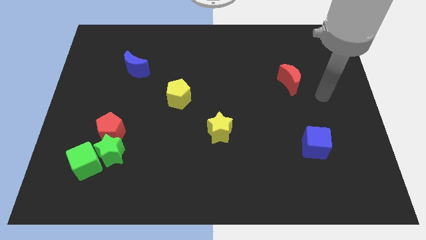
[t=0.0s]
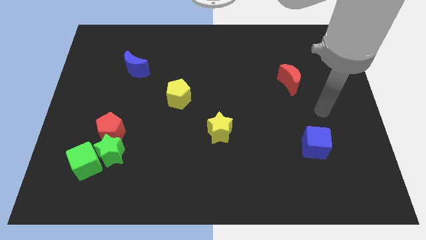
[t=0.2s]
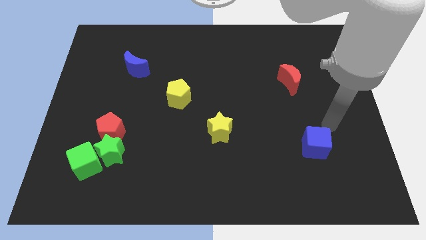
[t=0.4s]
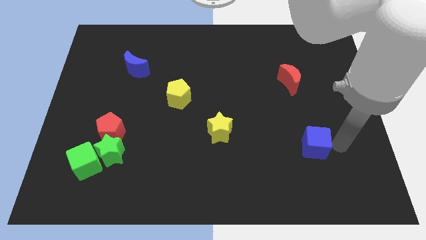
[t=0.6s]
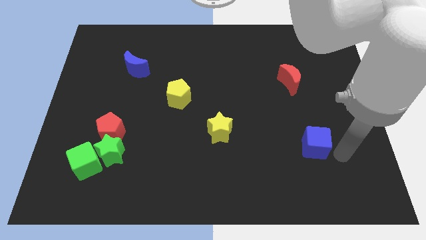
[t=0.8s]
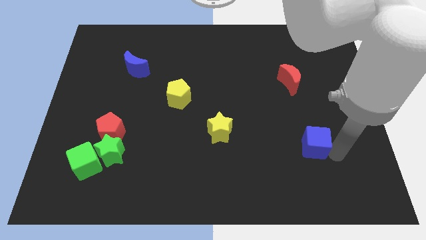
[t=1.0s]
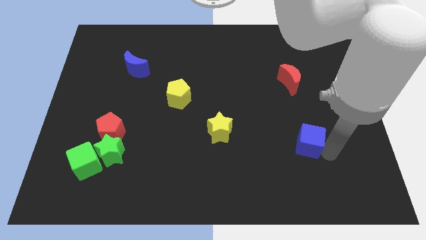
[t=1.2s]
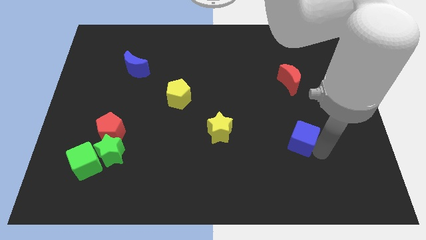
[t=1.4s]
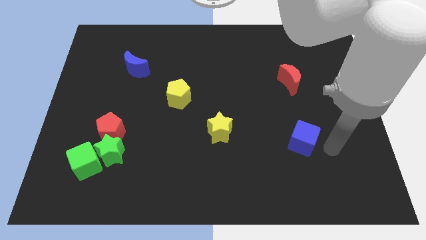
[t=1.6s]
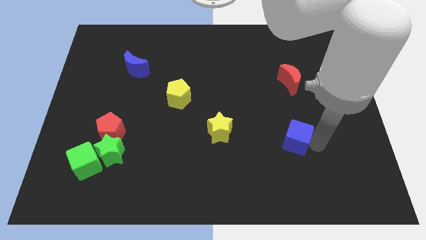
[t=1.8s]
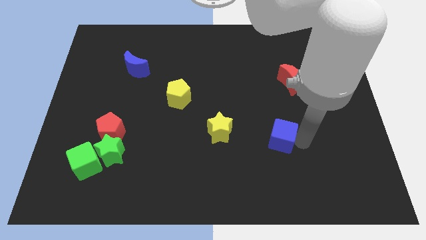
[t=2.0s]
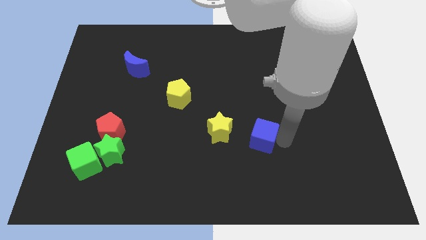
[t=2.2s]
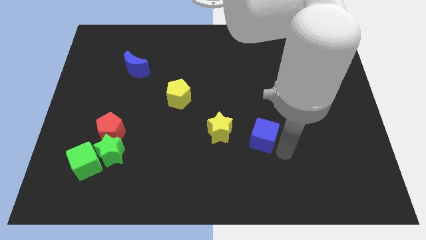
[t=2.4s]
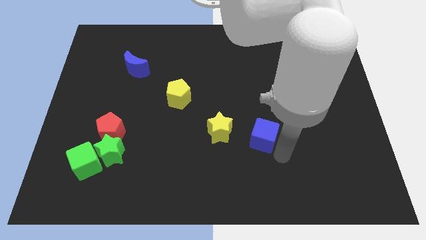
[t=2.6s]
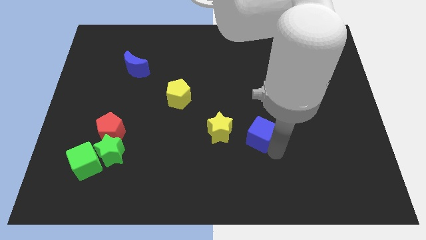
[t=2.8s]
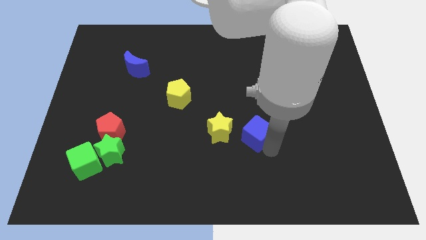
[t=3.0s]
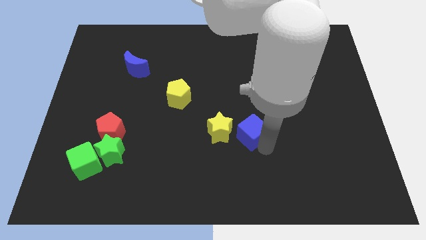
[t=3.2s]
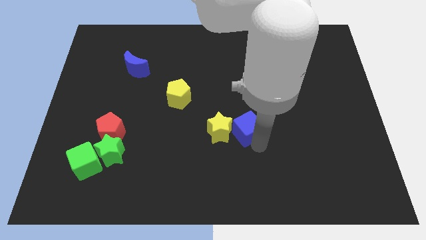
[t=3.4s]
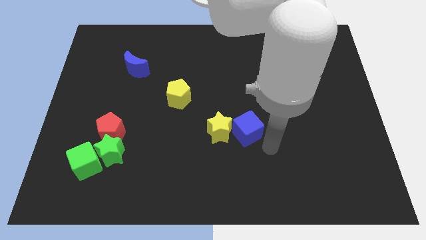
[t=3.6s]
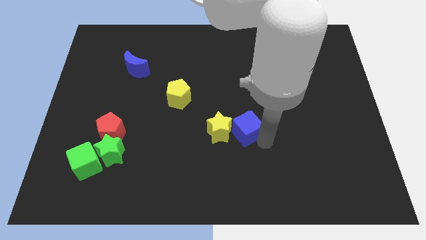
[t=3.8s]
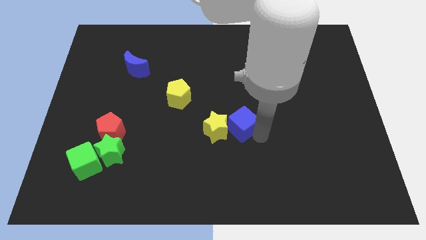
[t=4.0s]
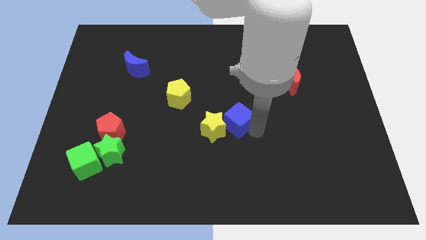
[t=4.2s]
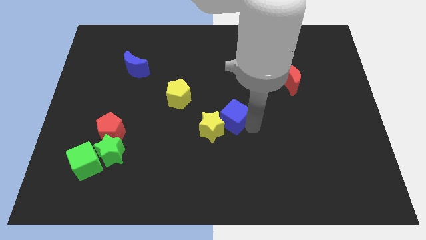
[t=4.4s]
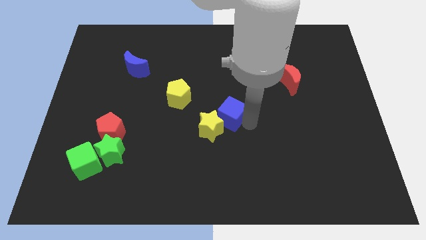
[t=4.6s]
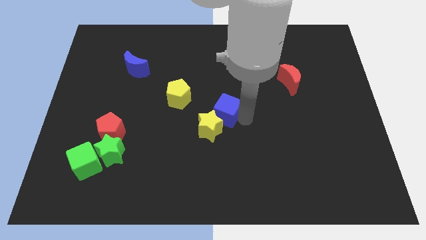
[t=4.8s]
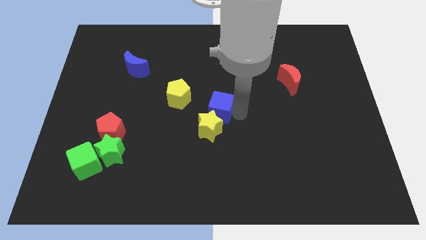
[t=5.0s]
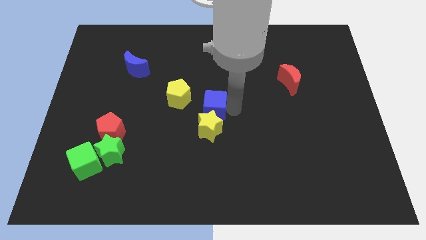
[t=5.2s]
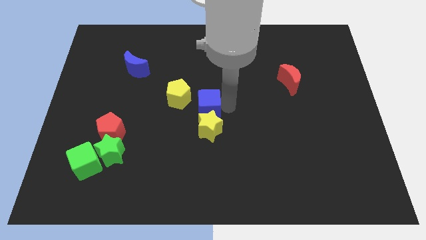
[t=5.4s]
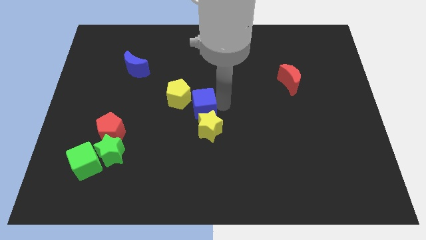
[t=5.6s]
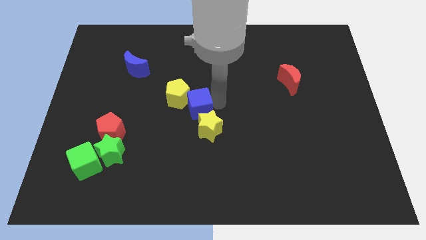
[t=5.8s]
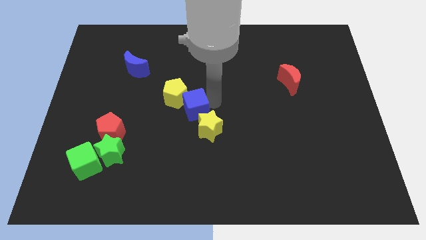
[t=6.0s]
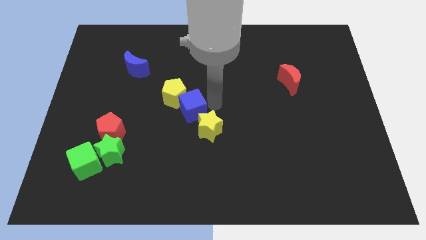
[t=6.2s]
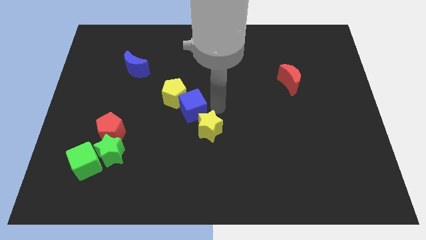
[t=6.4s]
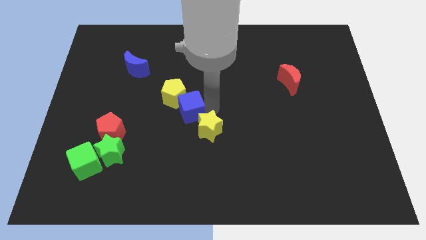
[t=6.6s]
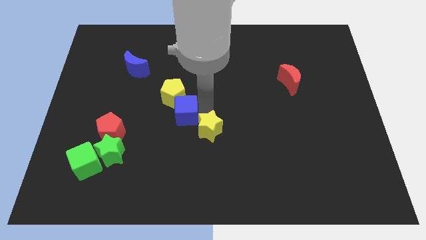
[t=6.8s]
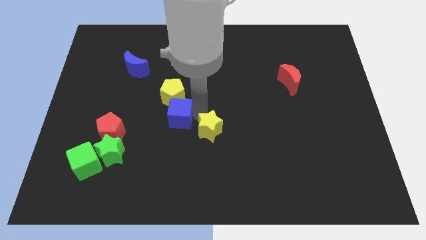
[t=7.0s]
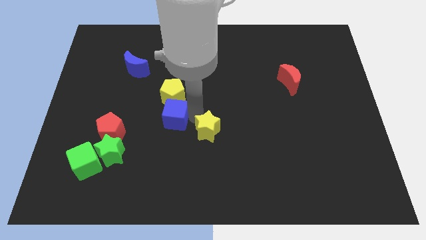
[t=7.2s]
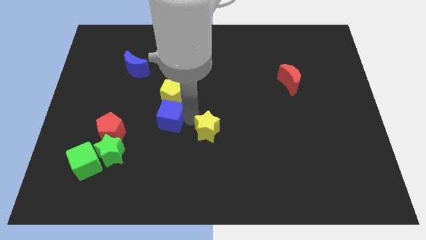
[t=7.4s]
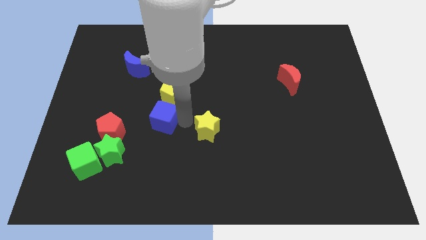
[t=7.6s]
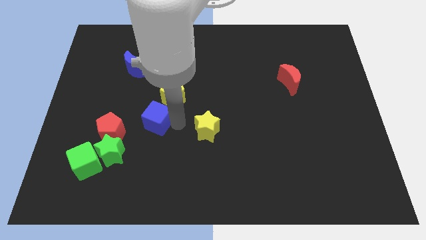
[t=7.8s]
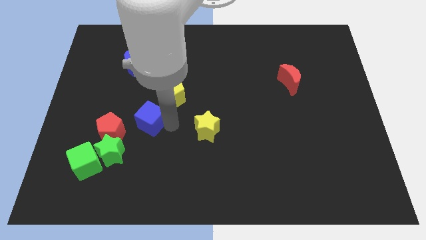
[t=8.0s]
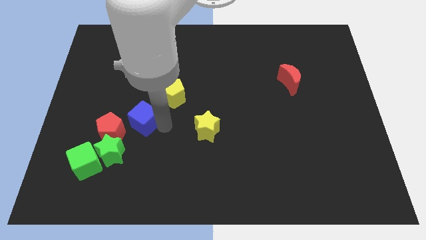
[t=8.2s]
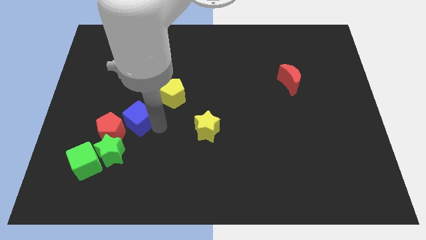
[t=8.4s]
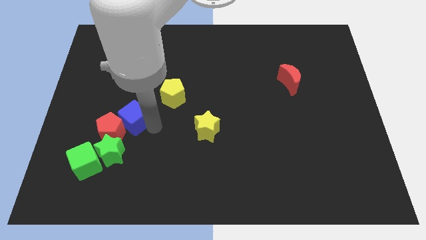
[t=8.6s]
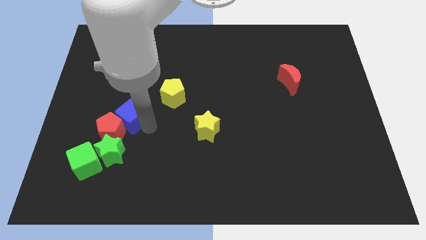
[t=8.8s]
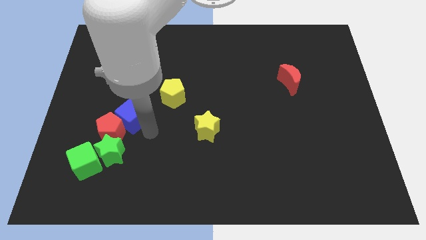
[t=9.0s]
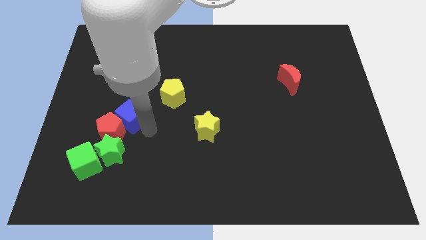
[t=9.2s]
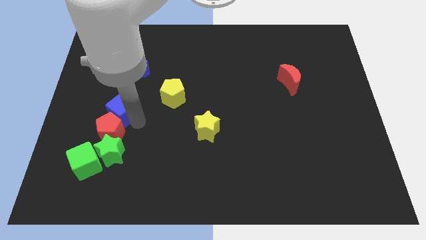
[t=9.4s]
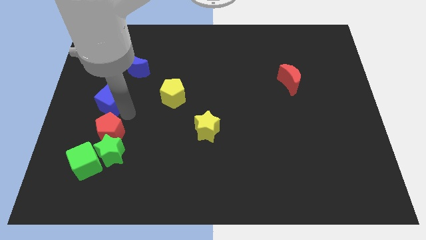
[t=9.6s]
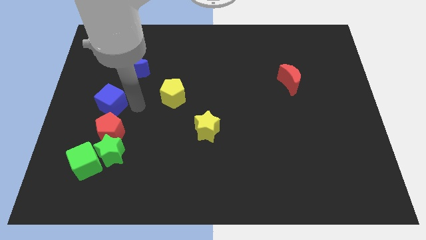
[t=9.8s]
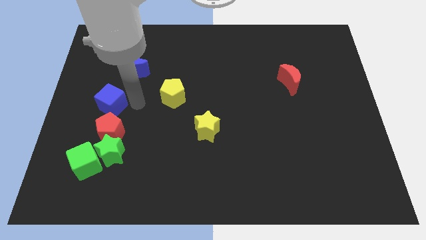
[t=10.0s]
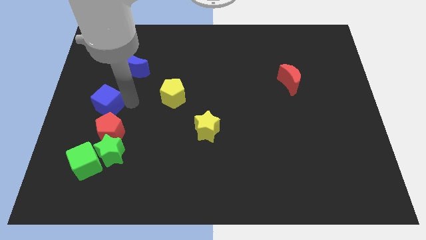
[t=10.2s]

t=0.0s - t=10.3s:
slide the blue cube to the center left

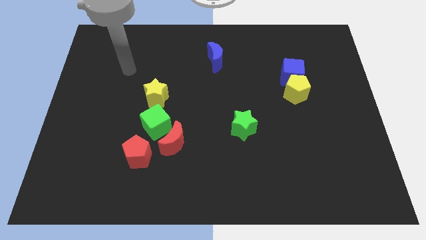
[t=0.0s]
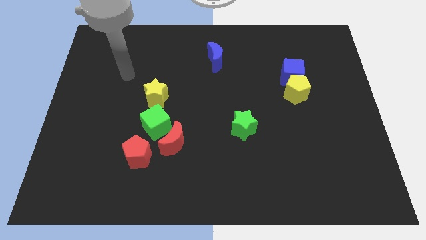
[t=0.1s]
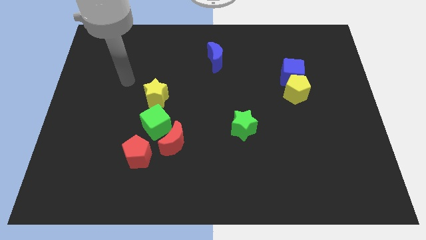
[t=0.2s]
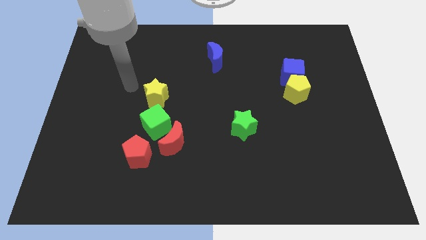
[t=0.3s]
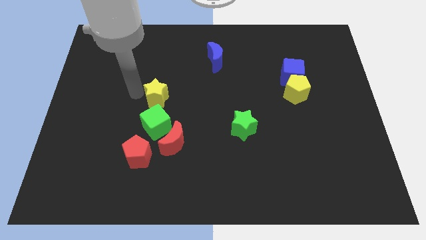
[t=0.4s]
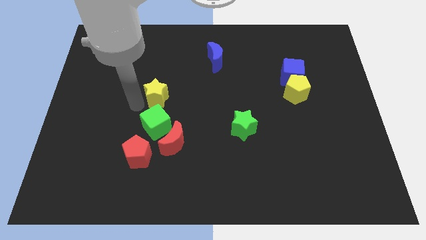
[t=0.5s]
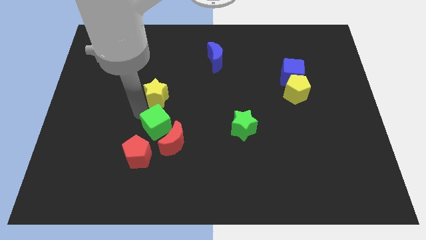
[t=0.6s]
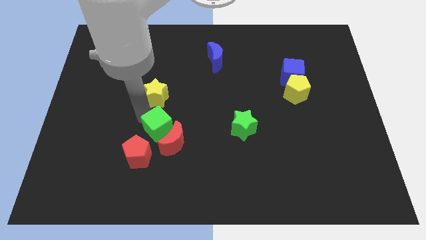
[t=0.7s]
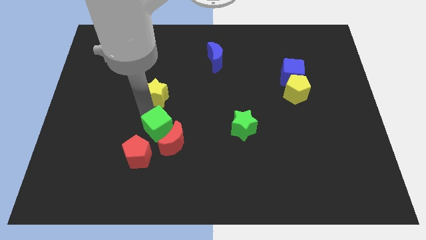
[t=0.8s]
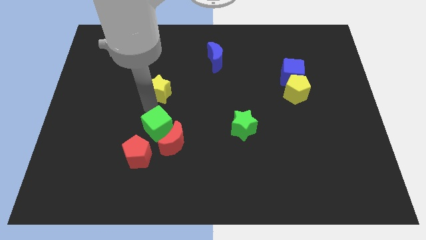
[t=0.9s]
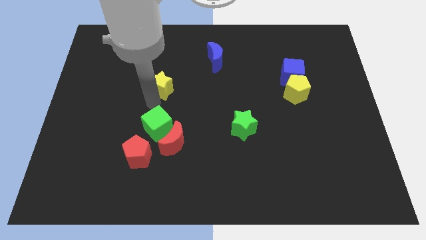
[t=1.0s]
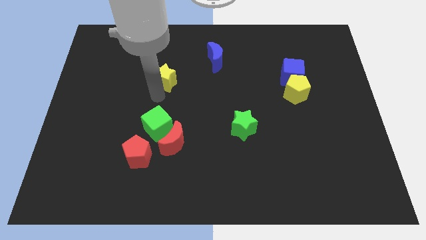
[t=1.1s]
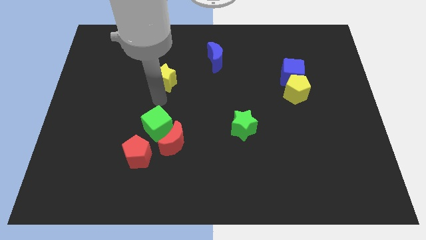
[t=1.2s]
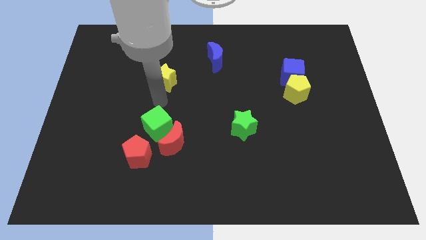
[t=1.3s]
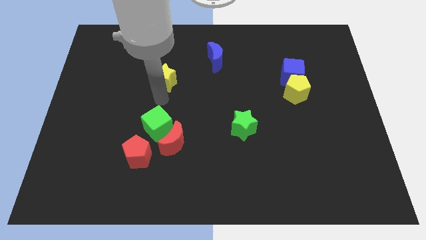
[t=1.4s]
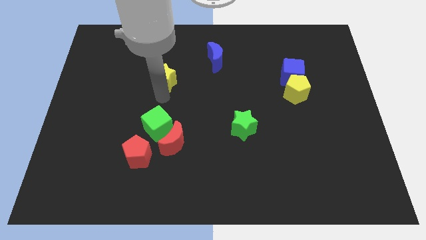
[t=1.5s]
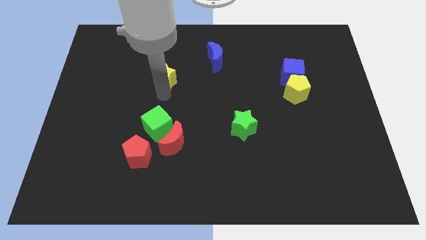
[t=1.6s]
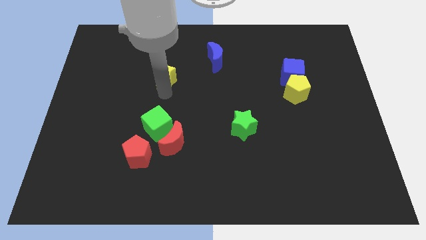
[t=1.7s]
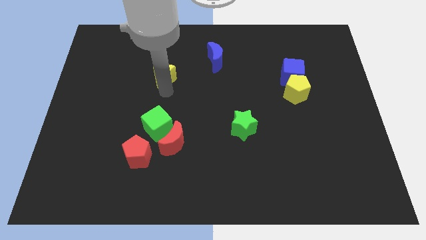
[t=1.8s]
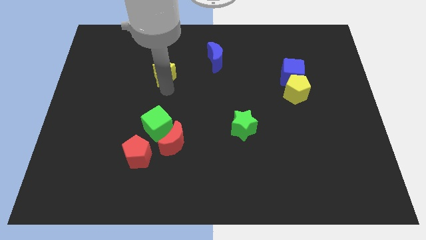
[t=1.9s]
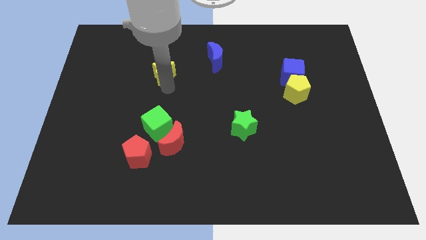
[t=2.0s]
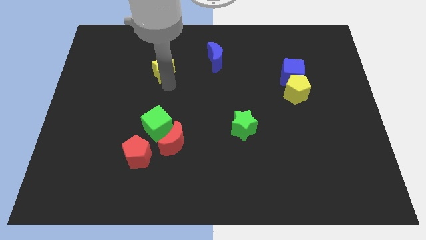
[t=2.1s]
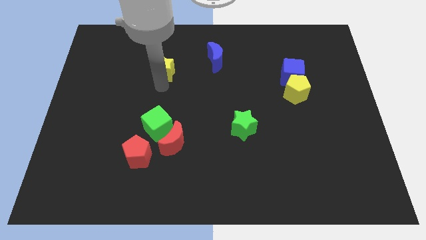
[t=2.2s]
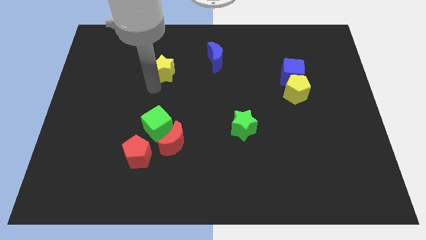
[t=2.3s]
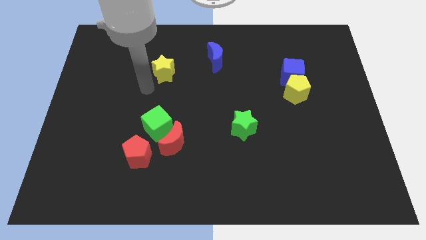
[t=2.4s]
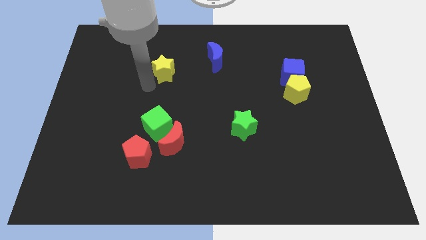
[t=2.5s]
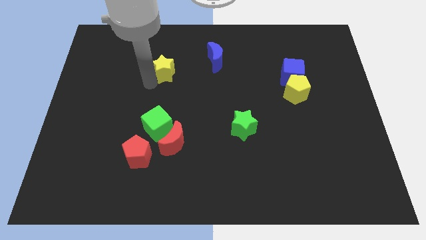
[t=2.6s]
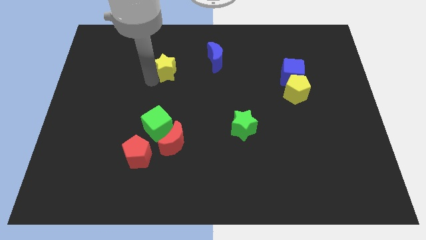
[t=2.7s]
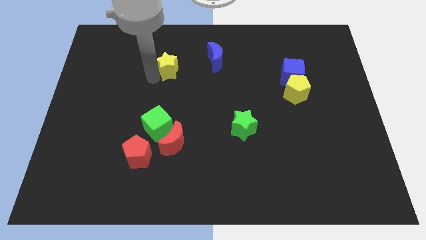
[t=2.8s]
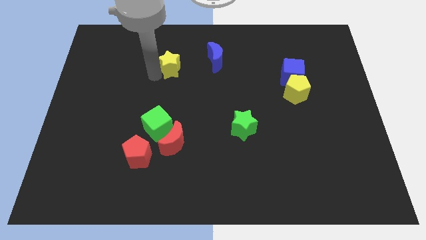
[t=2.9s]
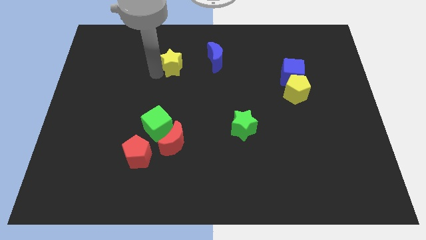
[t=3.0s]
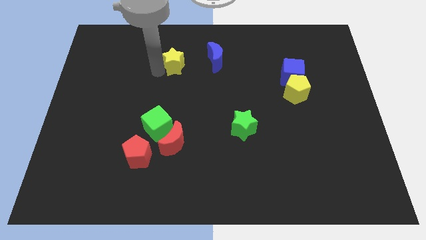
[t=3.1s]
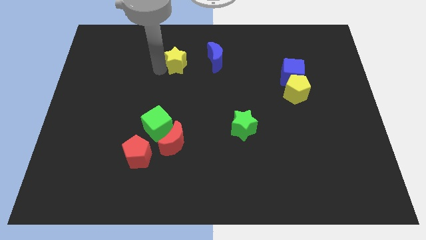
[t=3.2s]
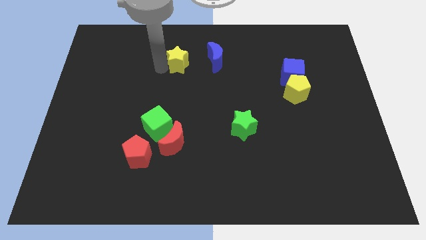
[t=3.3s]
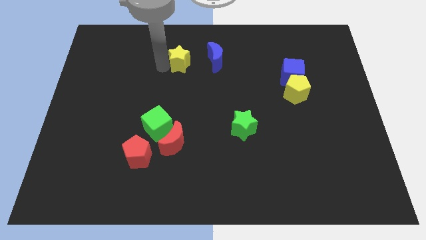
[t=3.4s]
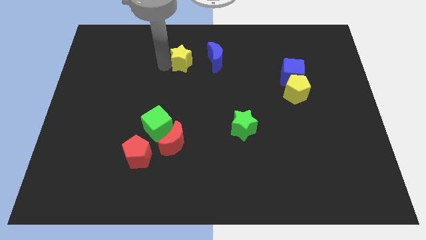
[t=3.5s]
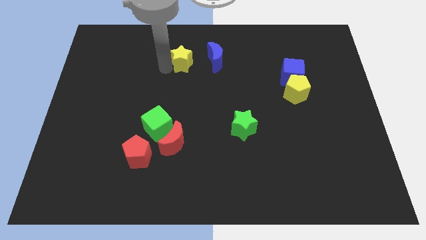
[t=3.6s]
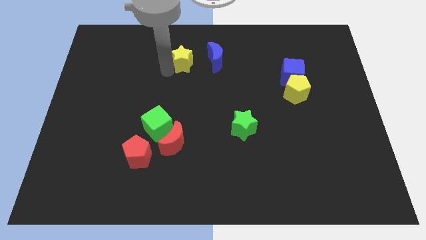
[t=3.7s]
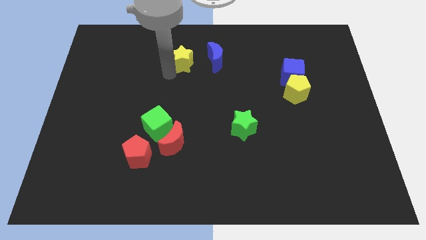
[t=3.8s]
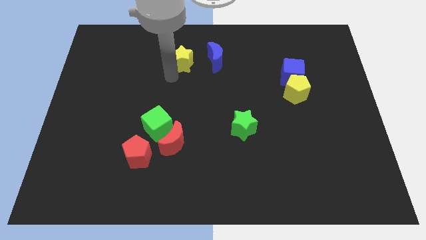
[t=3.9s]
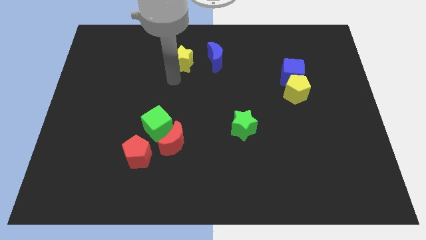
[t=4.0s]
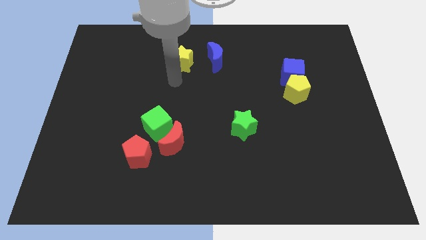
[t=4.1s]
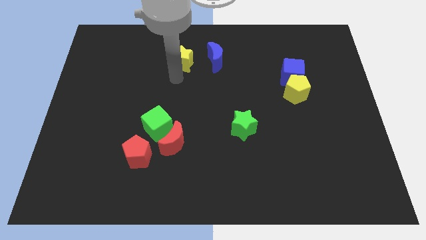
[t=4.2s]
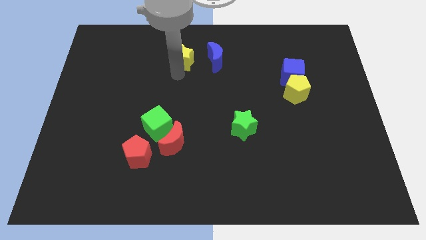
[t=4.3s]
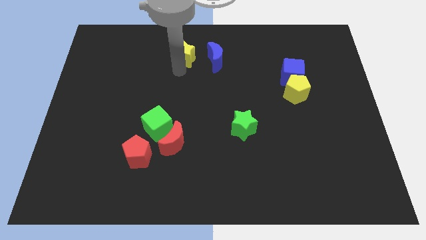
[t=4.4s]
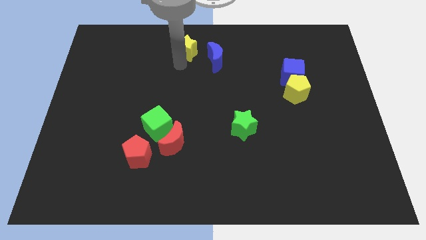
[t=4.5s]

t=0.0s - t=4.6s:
put the yellow star to the top side
